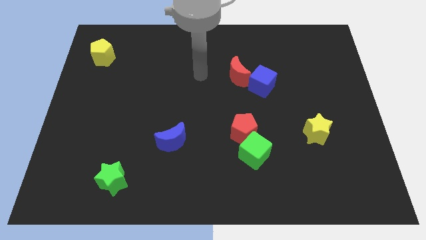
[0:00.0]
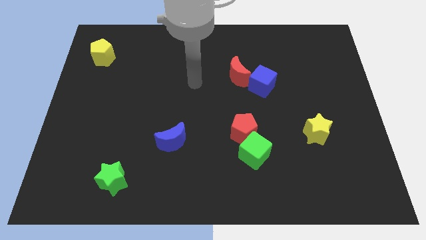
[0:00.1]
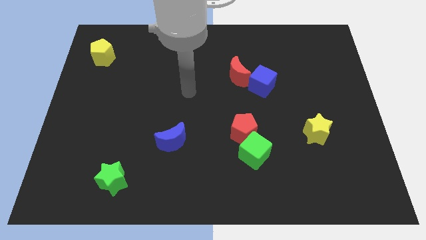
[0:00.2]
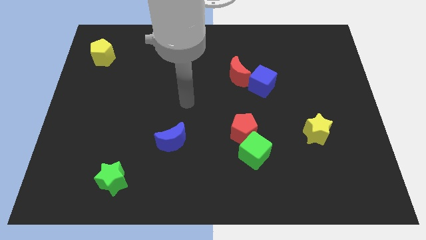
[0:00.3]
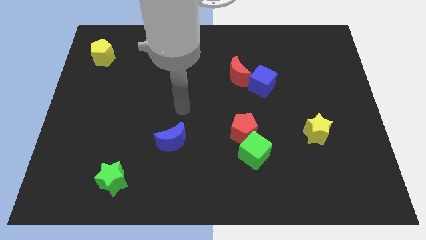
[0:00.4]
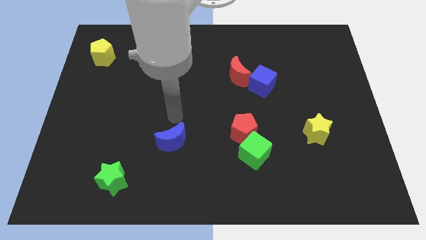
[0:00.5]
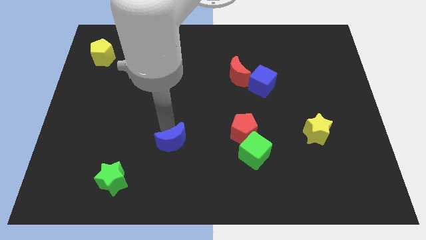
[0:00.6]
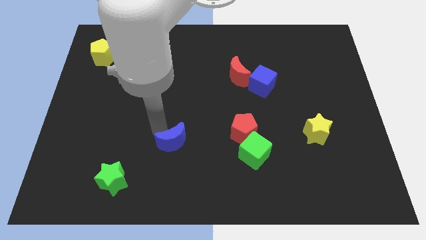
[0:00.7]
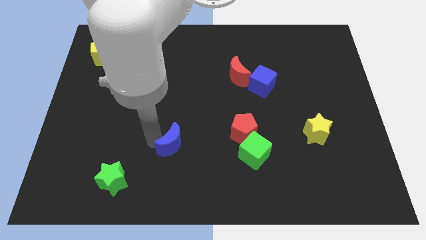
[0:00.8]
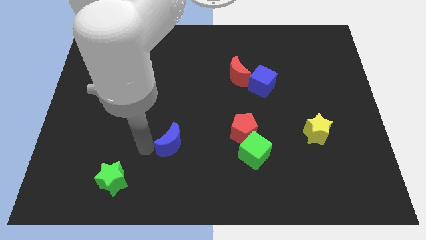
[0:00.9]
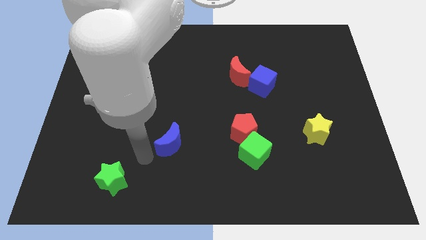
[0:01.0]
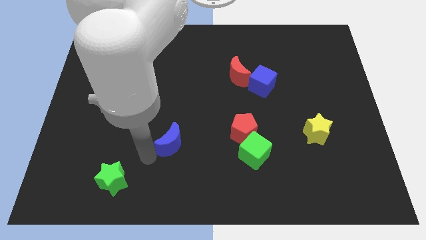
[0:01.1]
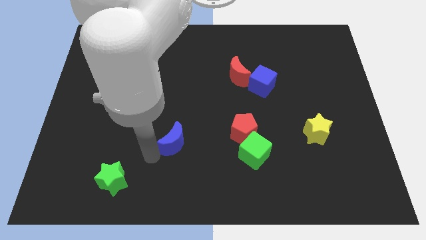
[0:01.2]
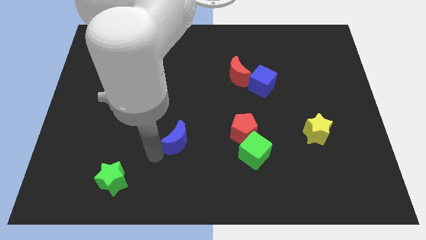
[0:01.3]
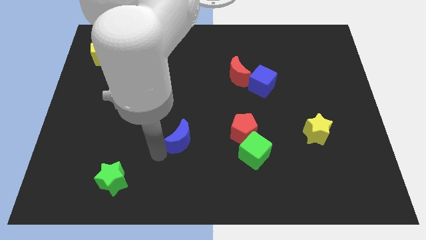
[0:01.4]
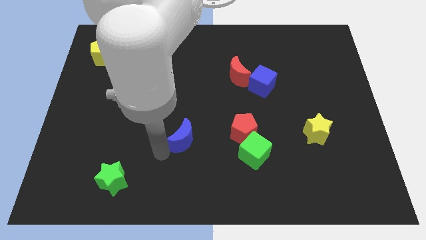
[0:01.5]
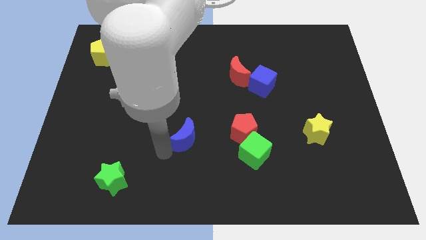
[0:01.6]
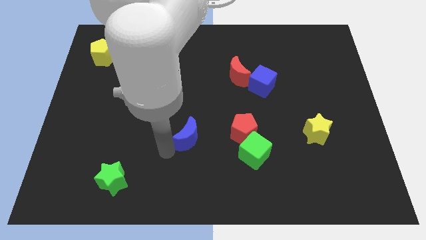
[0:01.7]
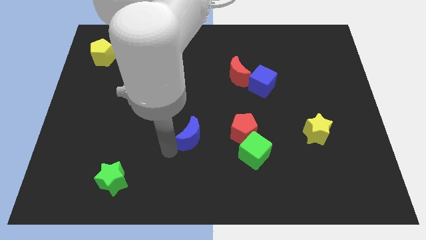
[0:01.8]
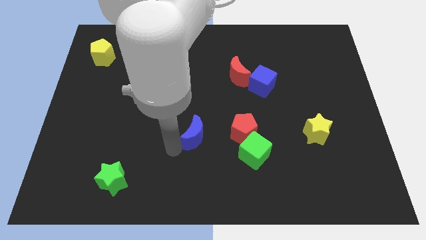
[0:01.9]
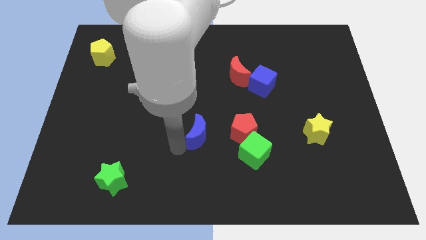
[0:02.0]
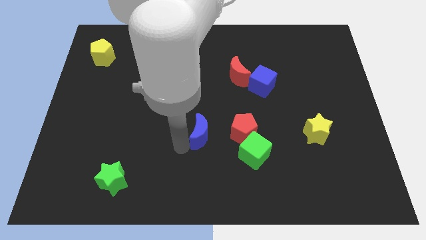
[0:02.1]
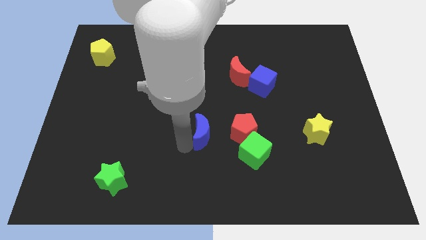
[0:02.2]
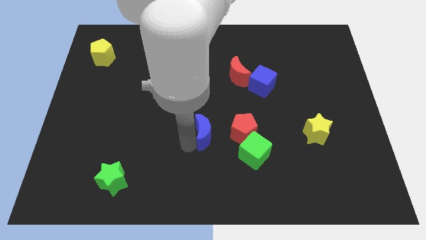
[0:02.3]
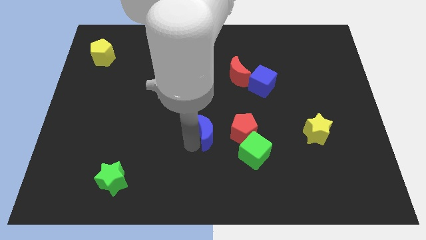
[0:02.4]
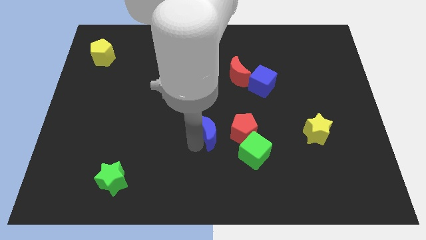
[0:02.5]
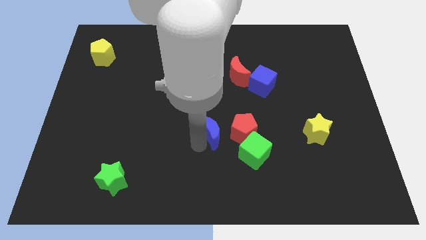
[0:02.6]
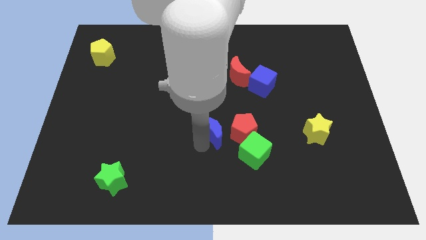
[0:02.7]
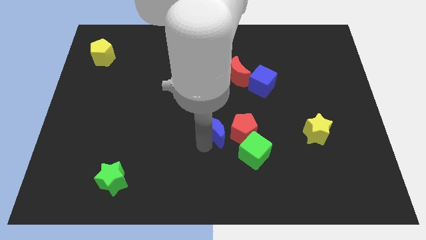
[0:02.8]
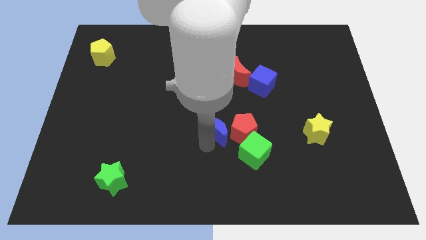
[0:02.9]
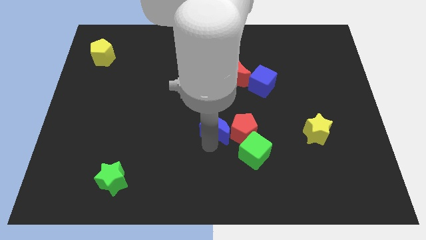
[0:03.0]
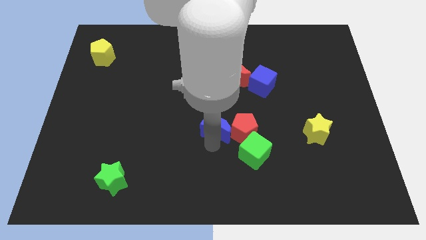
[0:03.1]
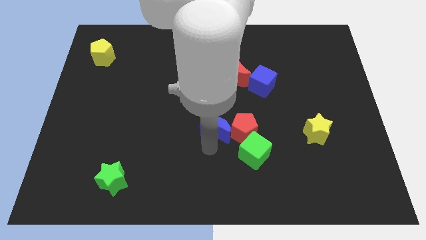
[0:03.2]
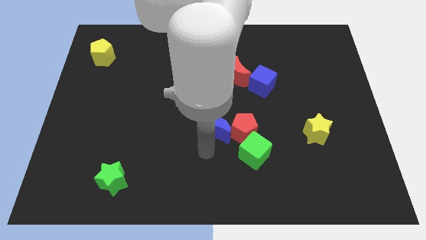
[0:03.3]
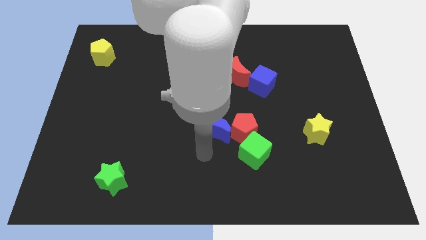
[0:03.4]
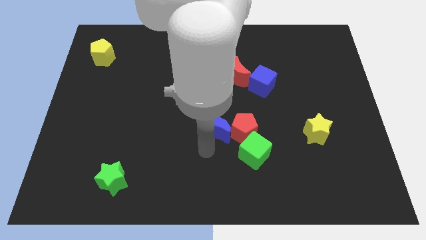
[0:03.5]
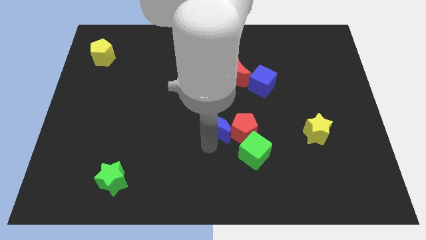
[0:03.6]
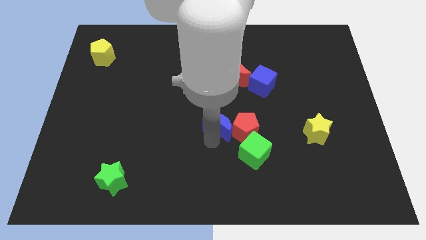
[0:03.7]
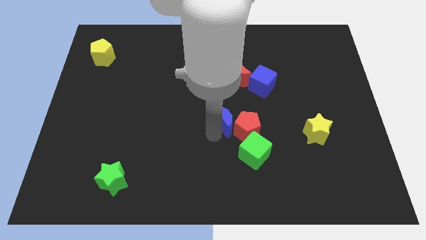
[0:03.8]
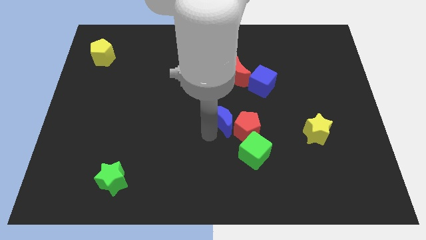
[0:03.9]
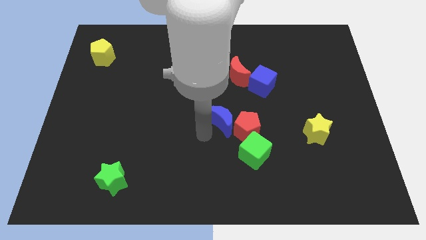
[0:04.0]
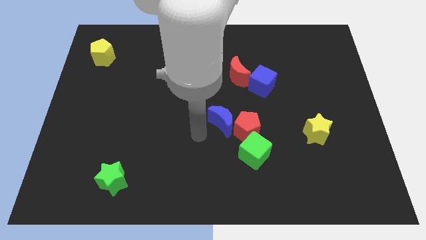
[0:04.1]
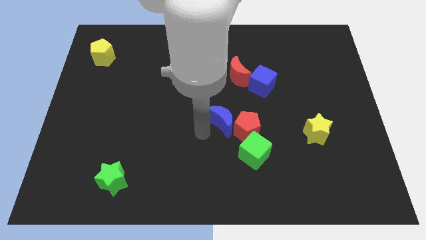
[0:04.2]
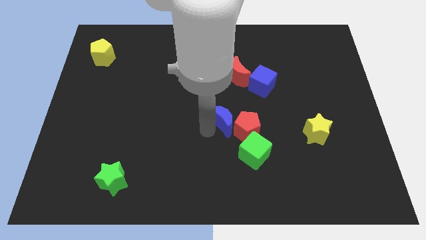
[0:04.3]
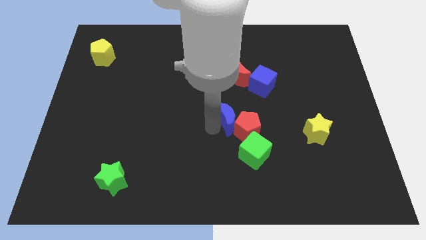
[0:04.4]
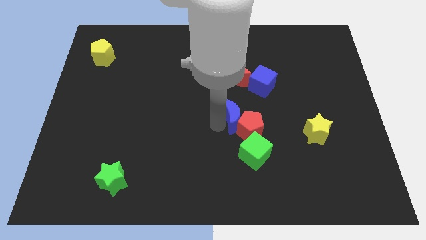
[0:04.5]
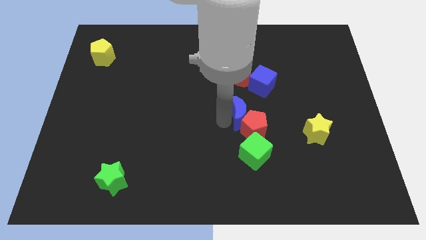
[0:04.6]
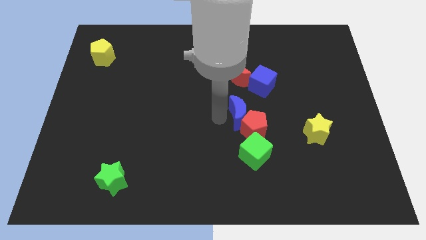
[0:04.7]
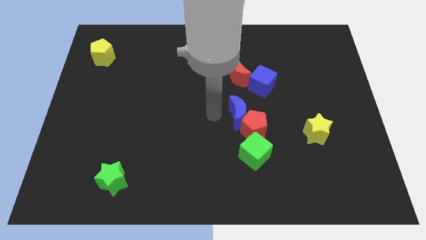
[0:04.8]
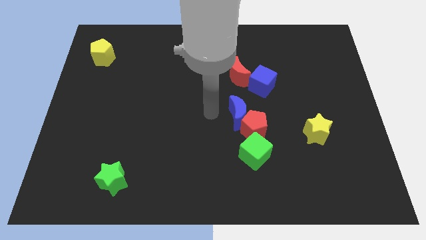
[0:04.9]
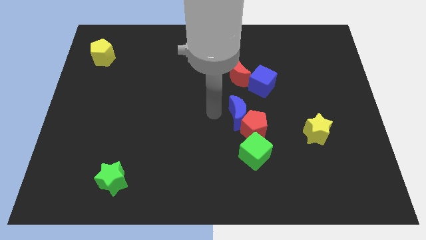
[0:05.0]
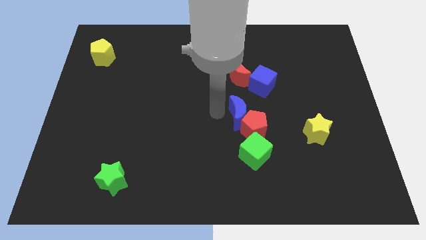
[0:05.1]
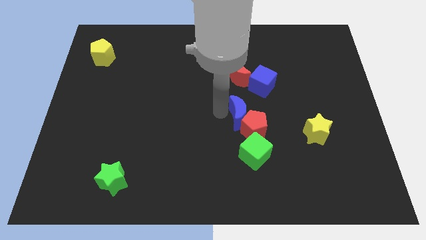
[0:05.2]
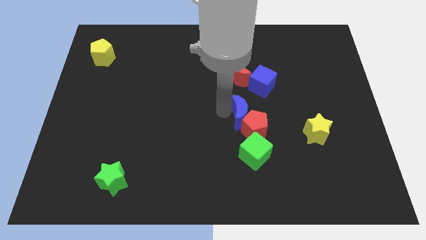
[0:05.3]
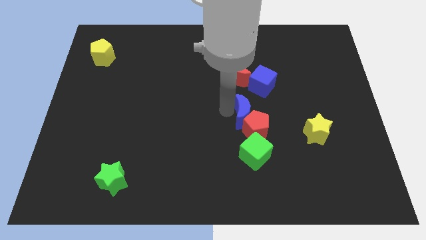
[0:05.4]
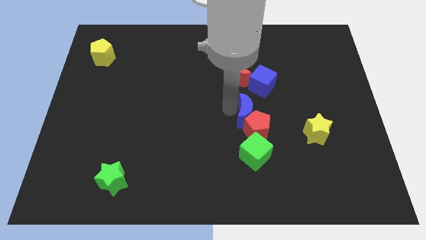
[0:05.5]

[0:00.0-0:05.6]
move the blue moon to the bottom side of the blue cube

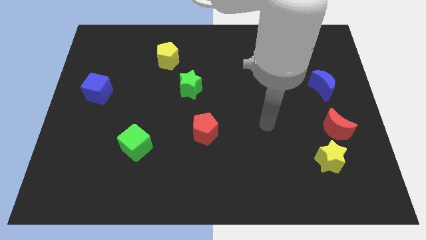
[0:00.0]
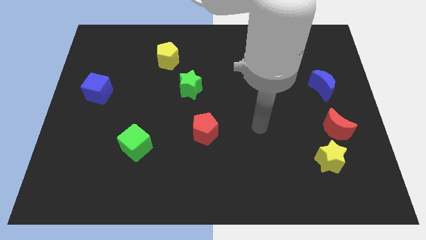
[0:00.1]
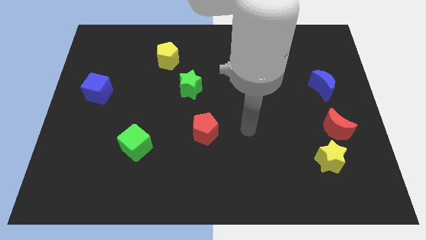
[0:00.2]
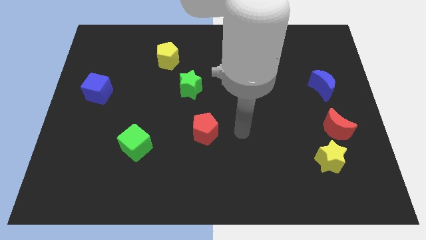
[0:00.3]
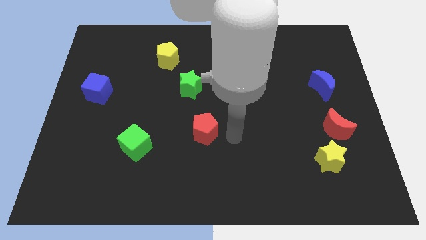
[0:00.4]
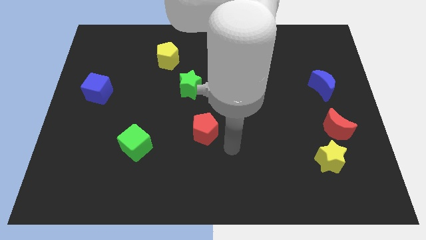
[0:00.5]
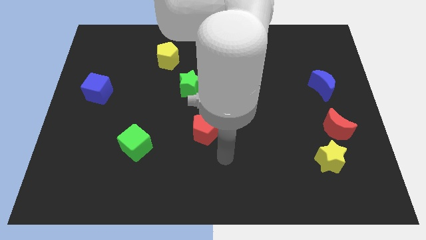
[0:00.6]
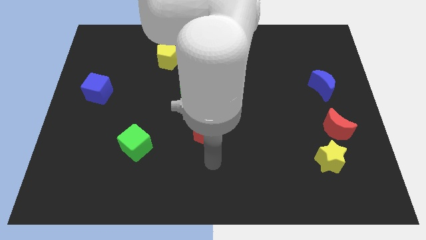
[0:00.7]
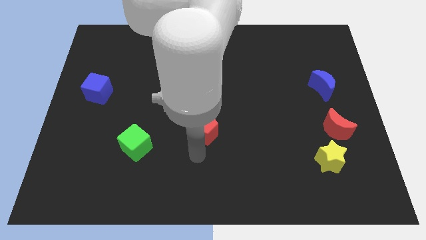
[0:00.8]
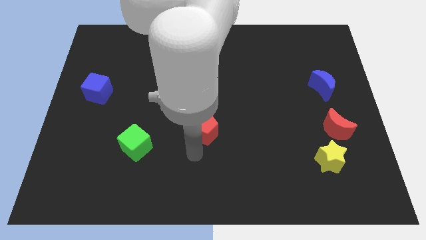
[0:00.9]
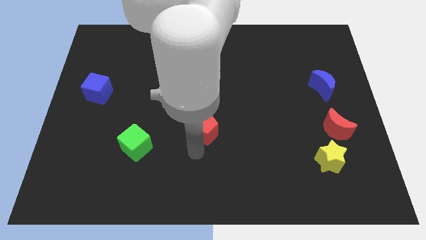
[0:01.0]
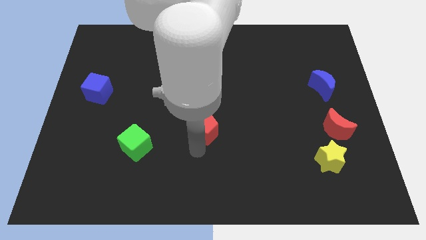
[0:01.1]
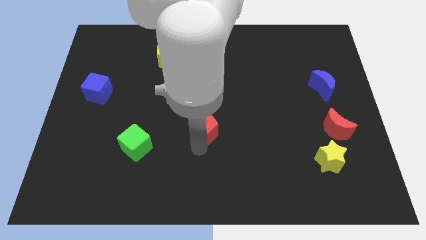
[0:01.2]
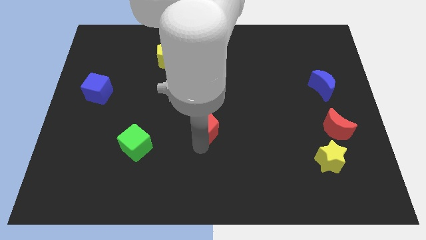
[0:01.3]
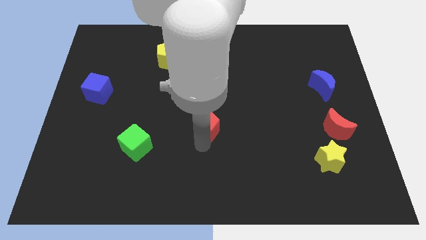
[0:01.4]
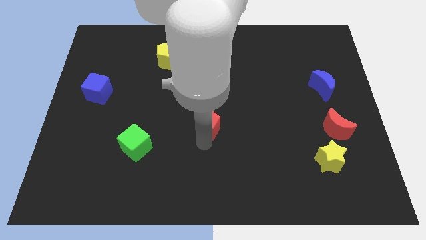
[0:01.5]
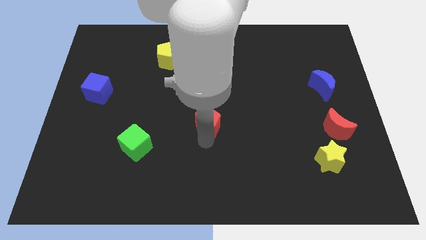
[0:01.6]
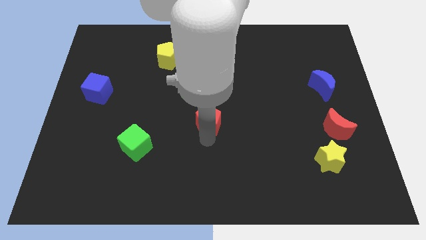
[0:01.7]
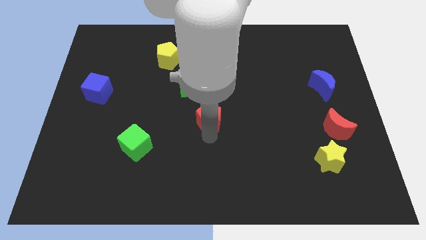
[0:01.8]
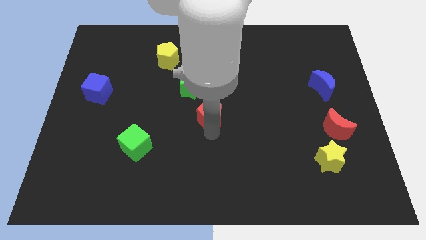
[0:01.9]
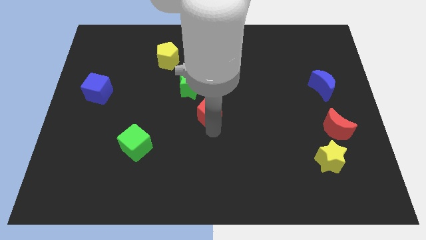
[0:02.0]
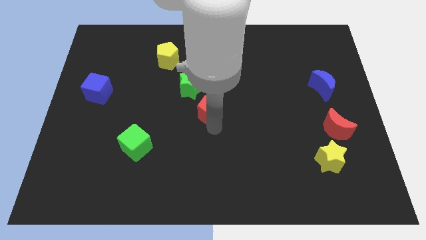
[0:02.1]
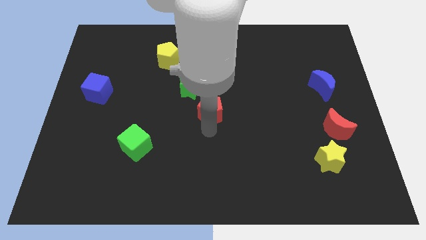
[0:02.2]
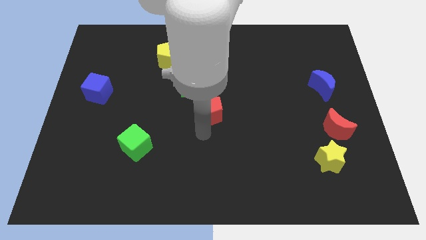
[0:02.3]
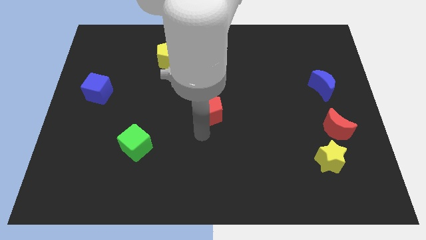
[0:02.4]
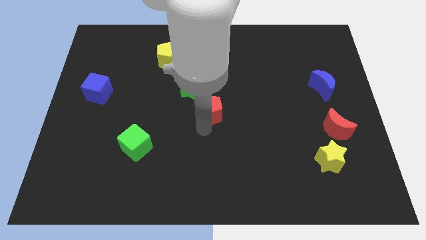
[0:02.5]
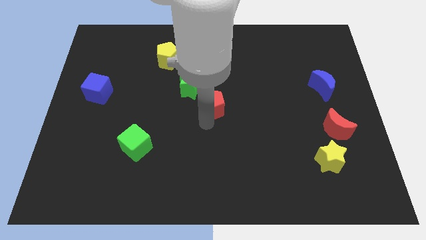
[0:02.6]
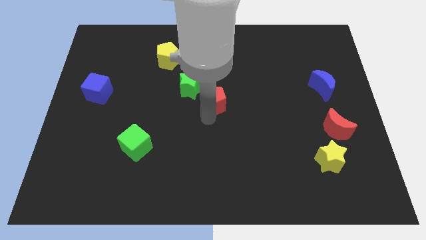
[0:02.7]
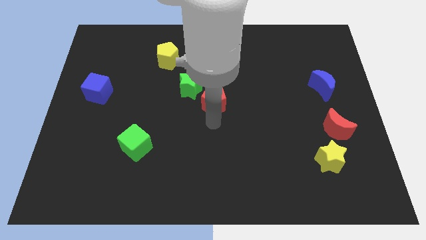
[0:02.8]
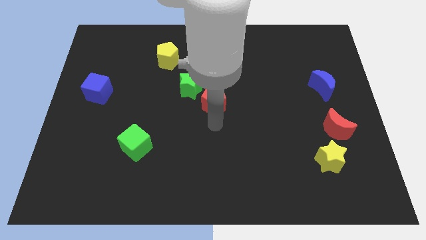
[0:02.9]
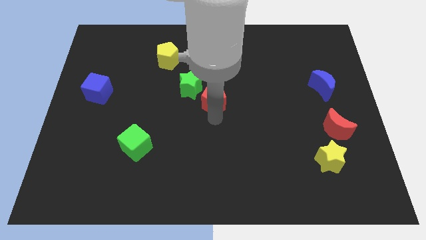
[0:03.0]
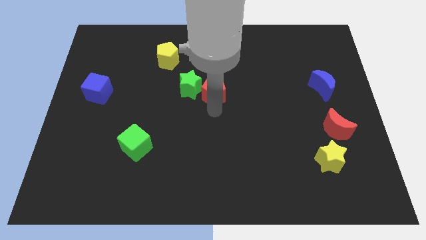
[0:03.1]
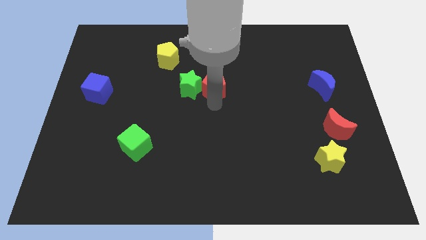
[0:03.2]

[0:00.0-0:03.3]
move the red pentagon to the top right side of the green star
